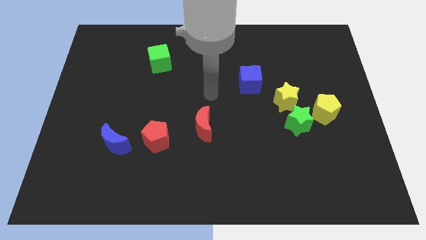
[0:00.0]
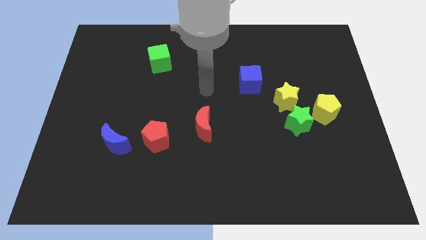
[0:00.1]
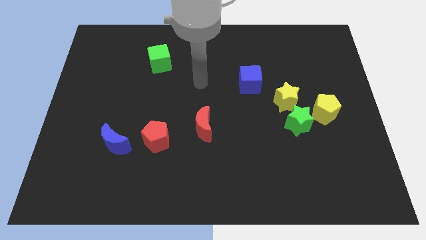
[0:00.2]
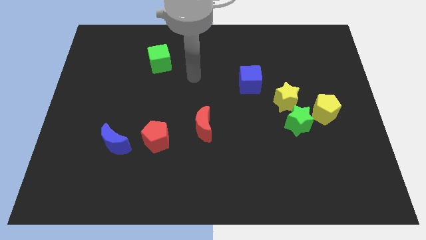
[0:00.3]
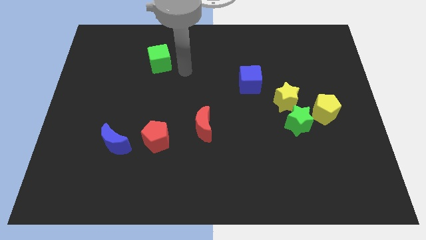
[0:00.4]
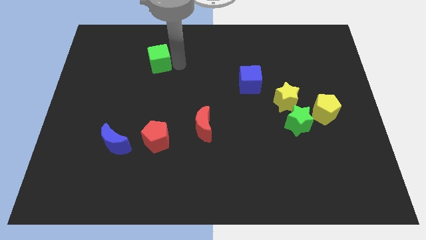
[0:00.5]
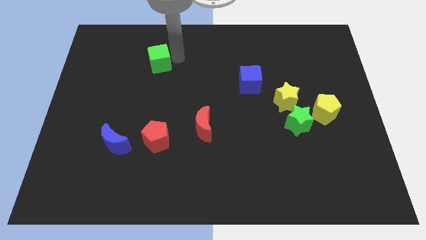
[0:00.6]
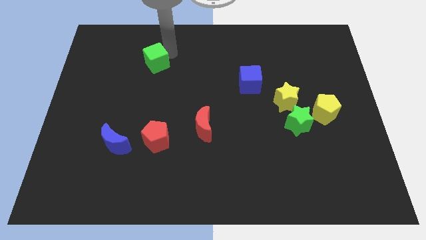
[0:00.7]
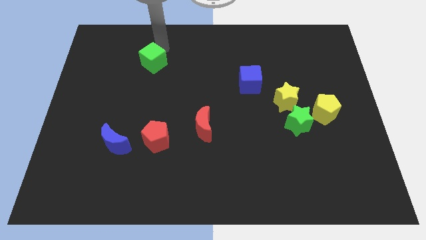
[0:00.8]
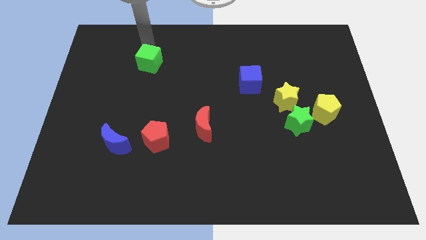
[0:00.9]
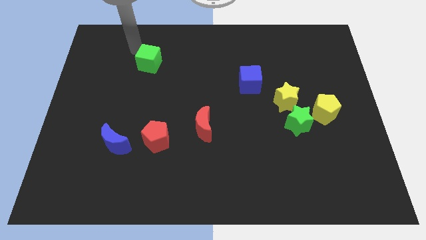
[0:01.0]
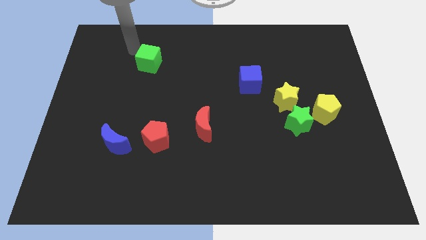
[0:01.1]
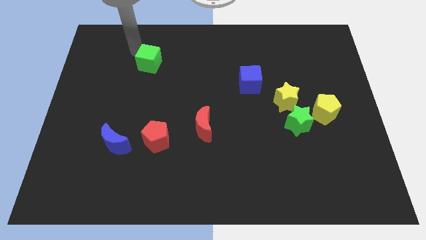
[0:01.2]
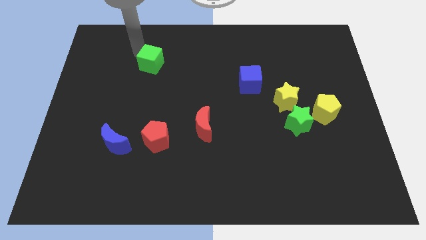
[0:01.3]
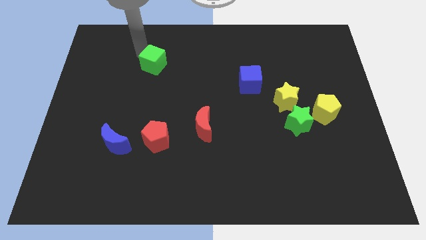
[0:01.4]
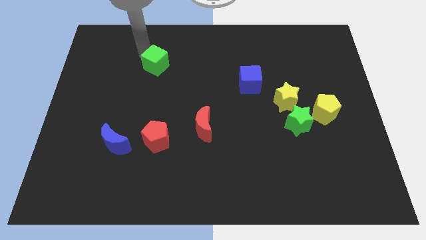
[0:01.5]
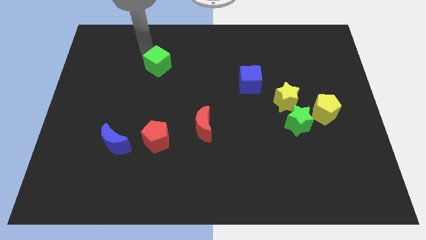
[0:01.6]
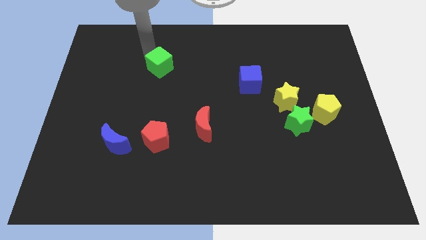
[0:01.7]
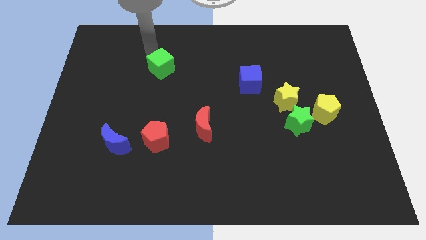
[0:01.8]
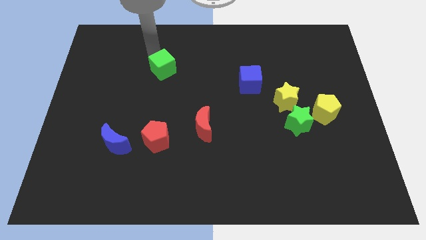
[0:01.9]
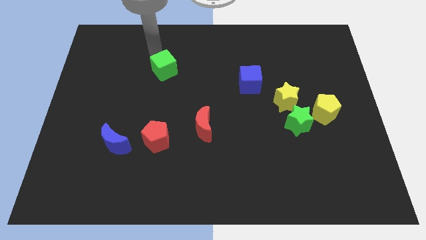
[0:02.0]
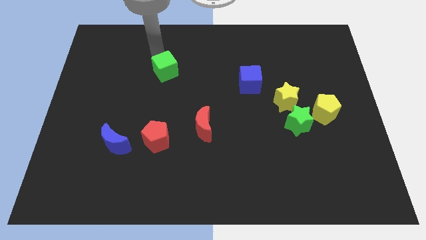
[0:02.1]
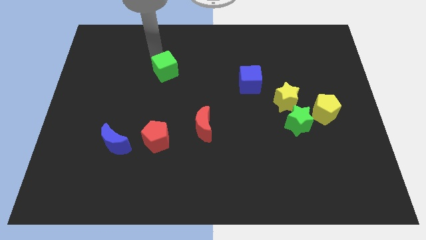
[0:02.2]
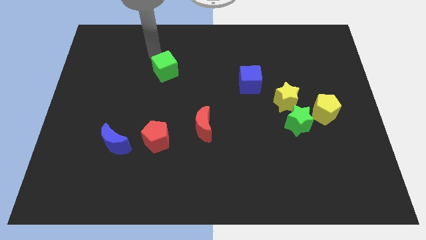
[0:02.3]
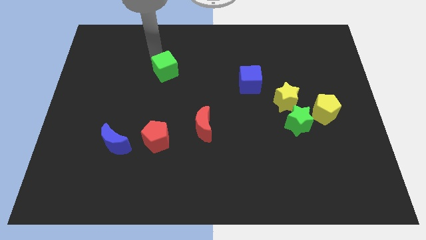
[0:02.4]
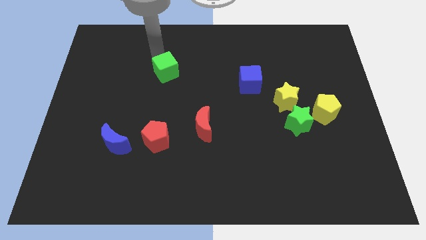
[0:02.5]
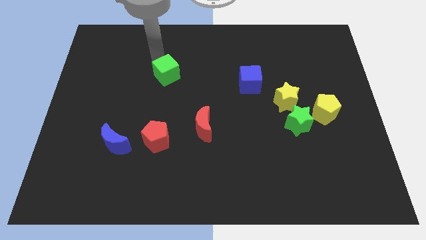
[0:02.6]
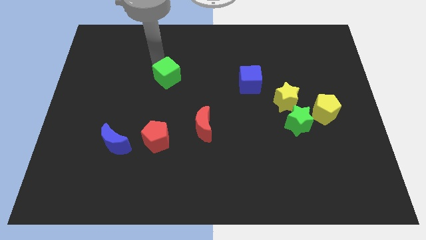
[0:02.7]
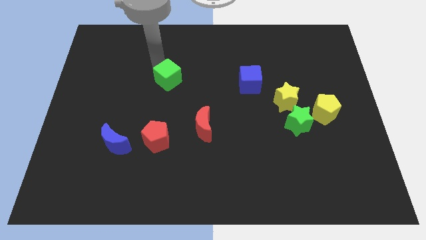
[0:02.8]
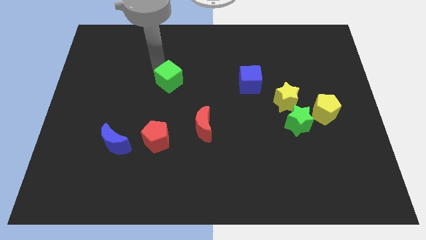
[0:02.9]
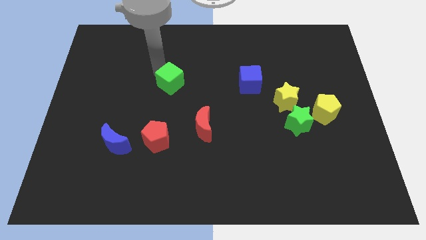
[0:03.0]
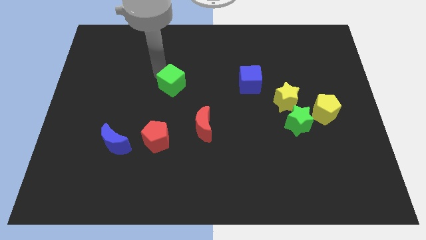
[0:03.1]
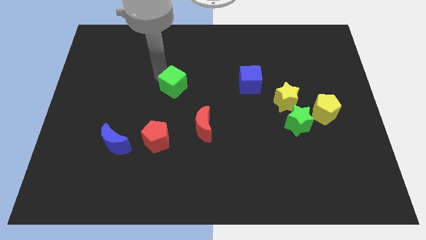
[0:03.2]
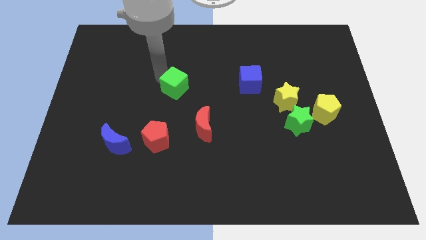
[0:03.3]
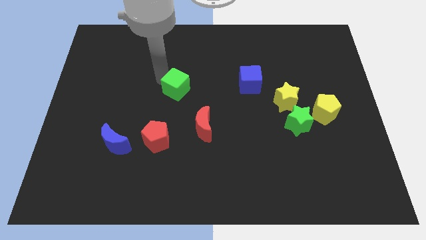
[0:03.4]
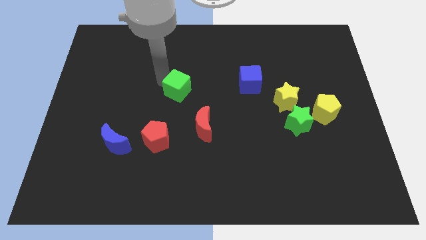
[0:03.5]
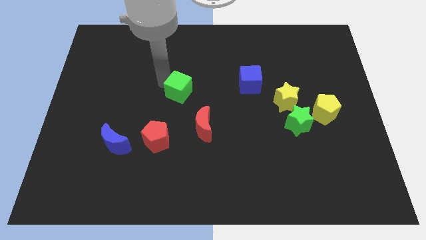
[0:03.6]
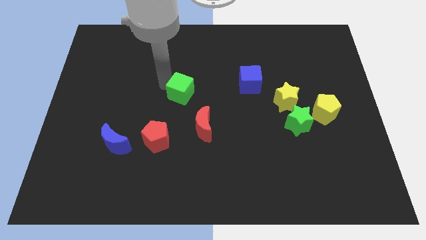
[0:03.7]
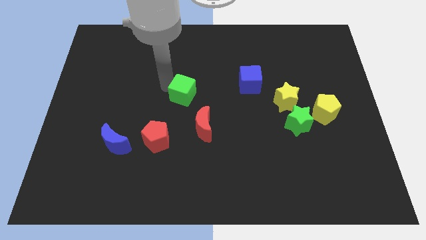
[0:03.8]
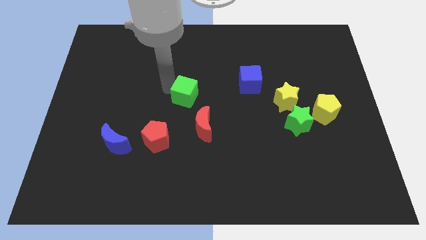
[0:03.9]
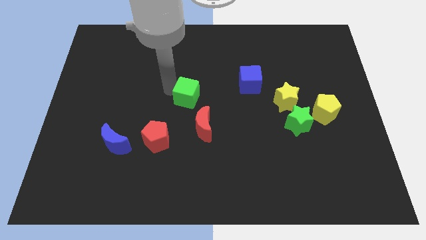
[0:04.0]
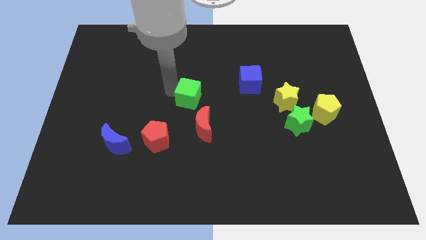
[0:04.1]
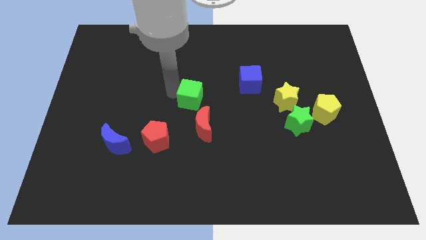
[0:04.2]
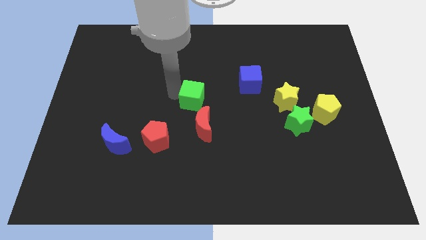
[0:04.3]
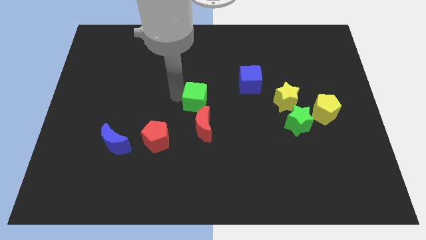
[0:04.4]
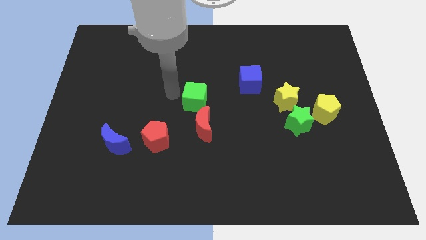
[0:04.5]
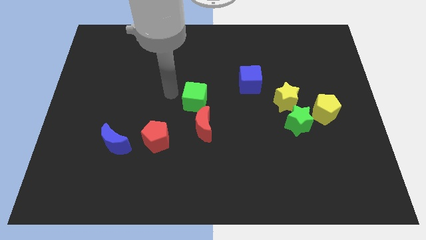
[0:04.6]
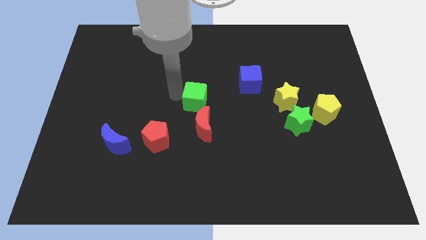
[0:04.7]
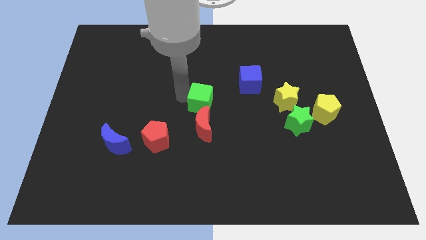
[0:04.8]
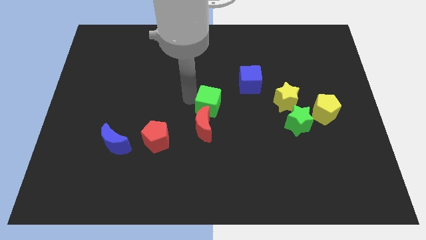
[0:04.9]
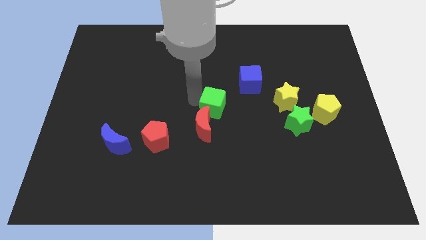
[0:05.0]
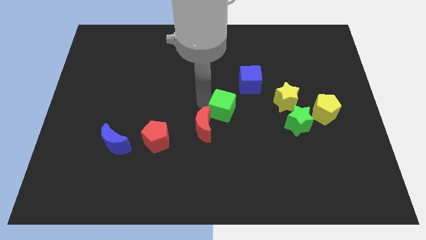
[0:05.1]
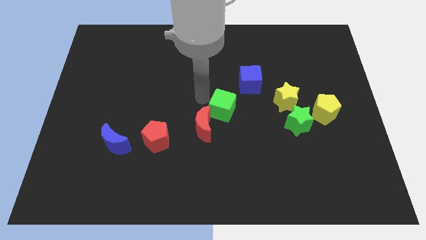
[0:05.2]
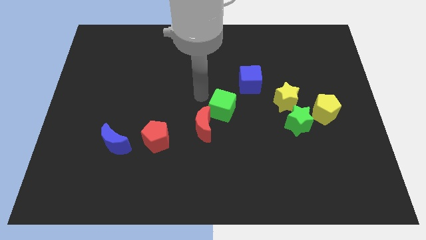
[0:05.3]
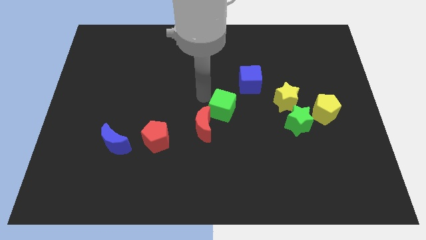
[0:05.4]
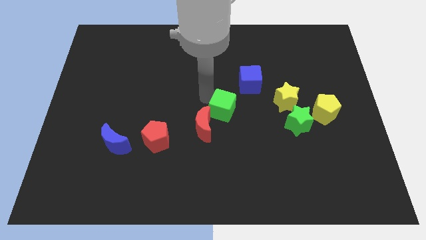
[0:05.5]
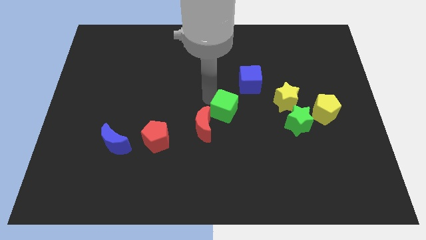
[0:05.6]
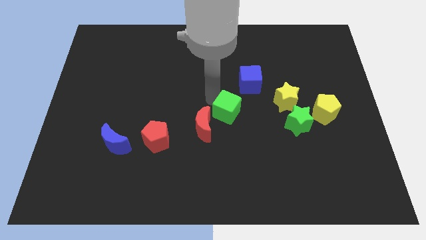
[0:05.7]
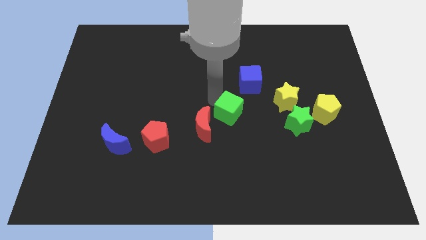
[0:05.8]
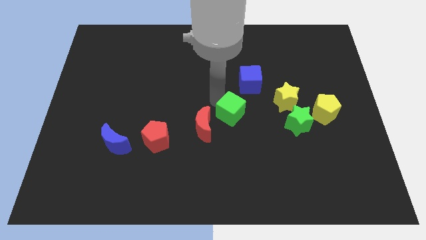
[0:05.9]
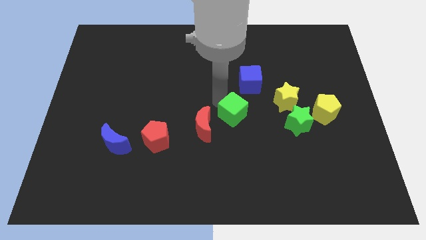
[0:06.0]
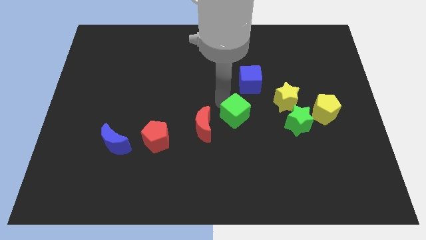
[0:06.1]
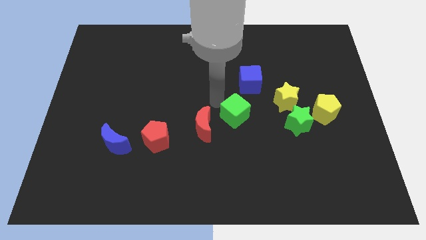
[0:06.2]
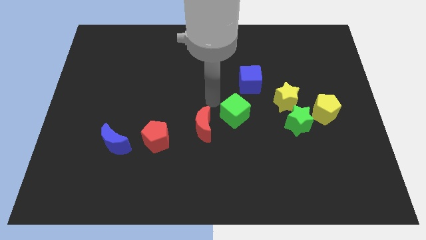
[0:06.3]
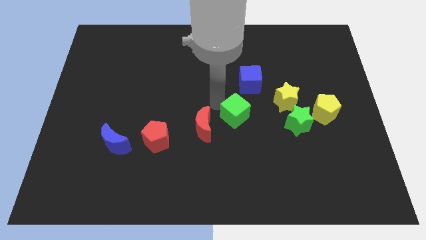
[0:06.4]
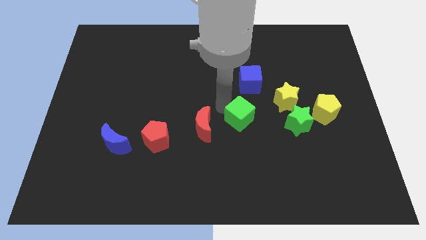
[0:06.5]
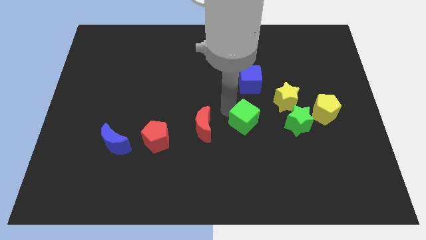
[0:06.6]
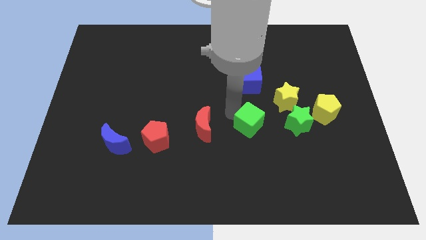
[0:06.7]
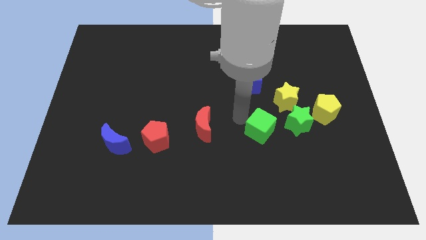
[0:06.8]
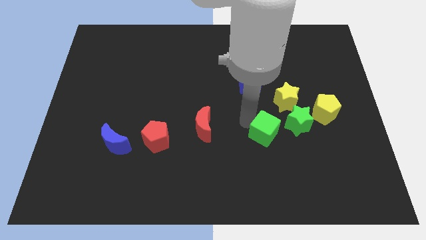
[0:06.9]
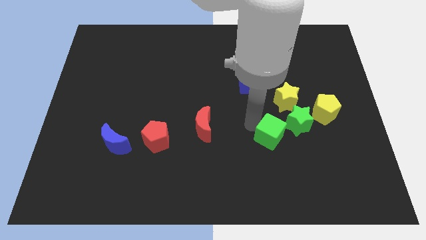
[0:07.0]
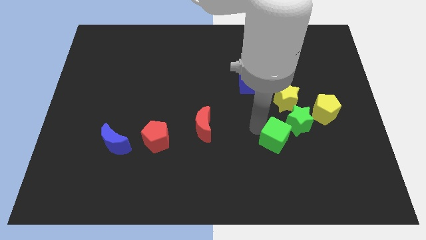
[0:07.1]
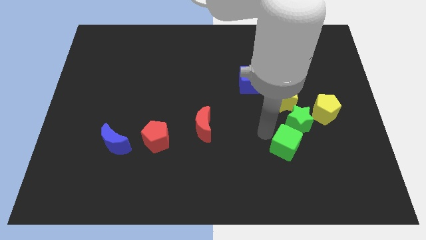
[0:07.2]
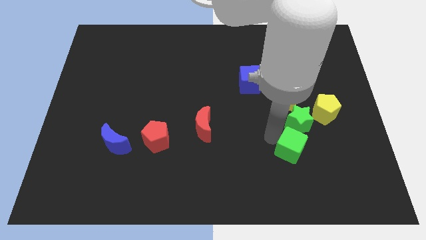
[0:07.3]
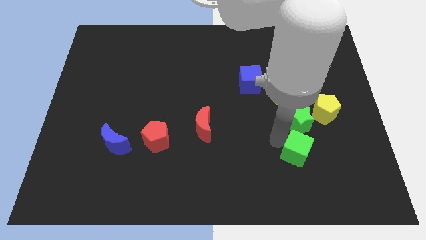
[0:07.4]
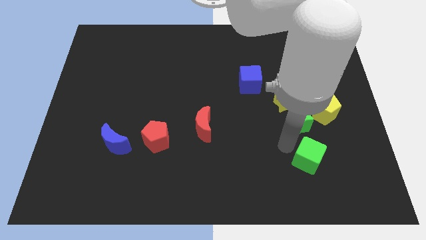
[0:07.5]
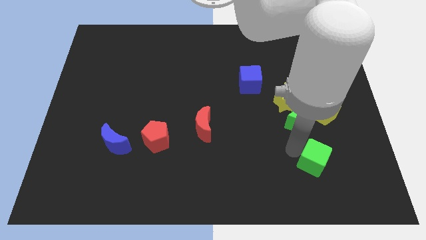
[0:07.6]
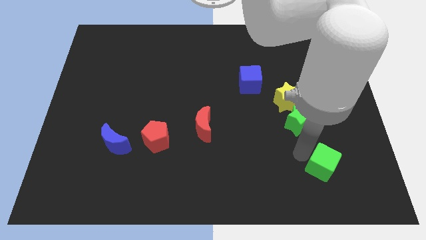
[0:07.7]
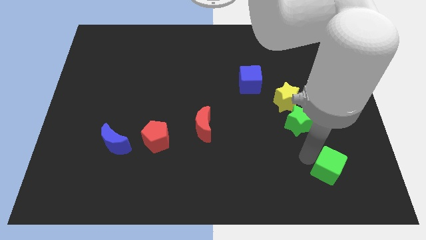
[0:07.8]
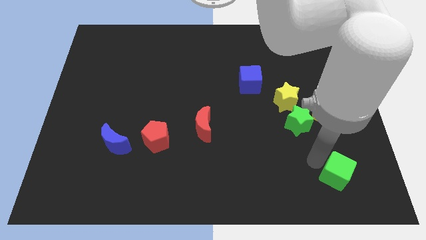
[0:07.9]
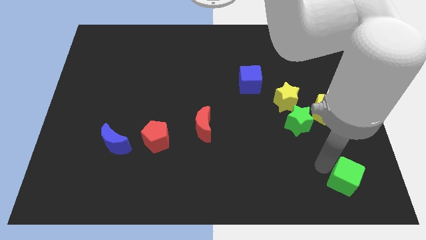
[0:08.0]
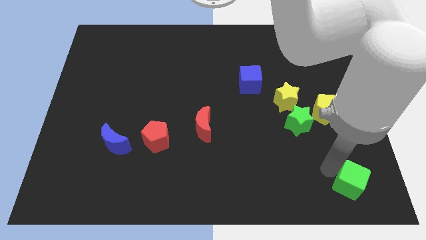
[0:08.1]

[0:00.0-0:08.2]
put the green cube to the bottom right of the board
